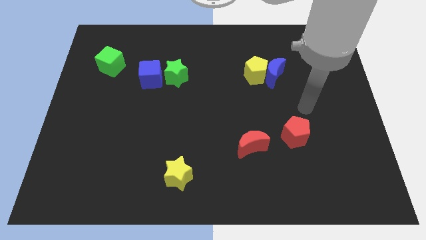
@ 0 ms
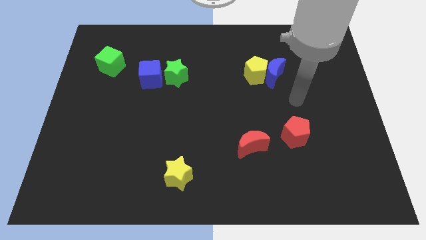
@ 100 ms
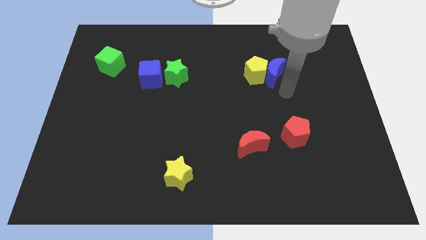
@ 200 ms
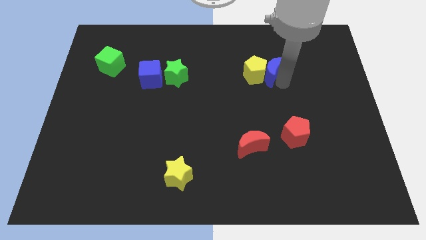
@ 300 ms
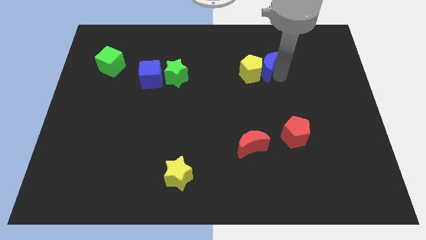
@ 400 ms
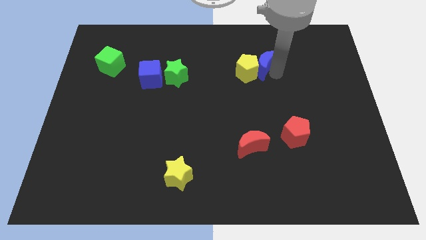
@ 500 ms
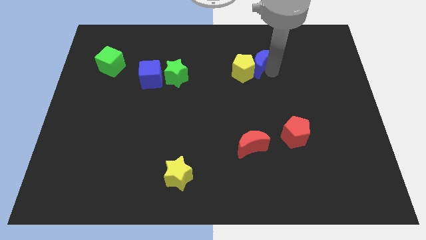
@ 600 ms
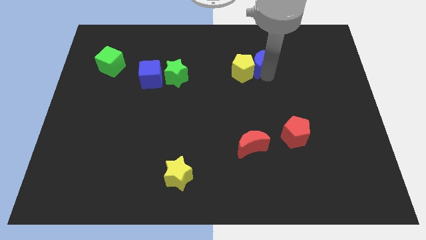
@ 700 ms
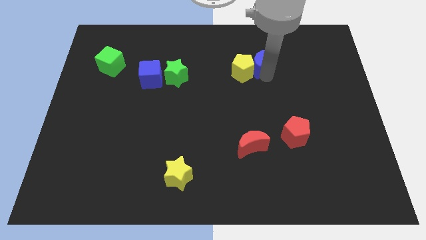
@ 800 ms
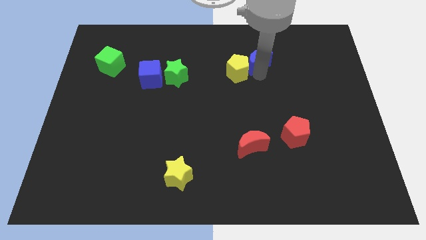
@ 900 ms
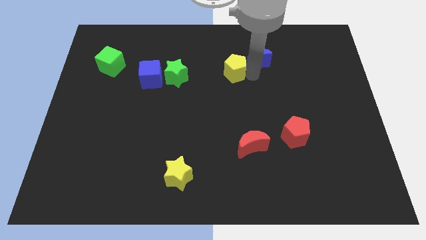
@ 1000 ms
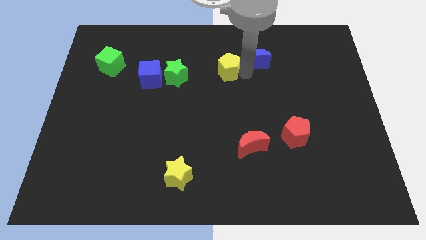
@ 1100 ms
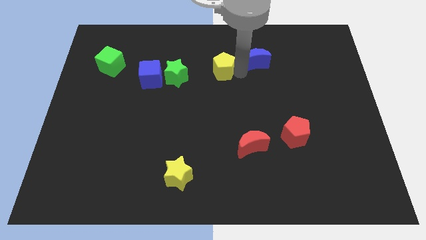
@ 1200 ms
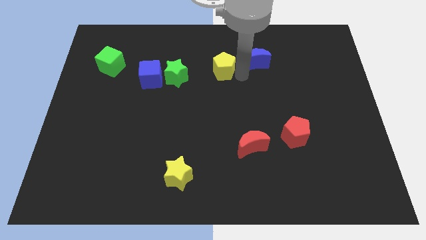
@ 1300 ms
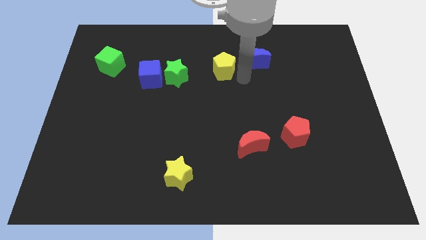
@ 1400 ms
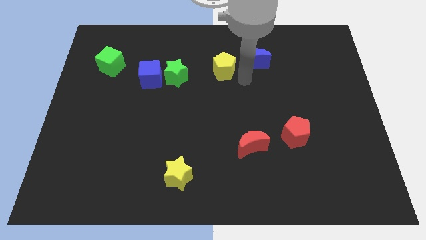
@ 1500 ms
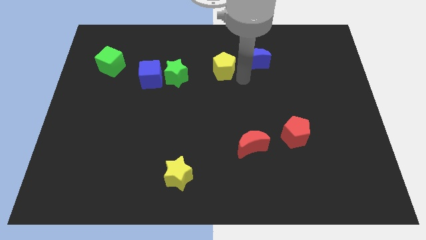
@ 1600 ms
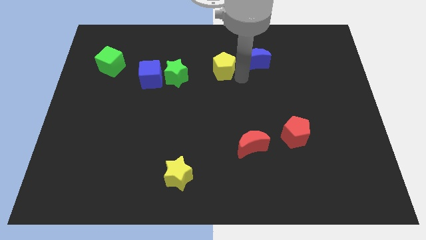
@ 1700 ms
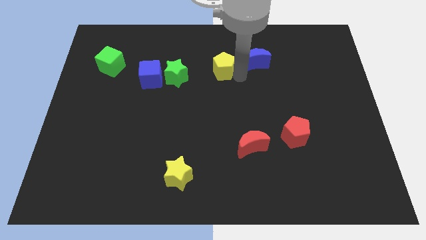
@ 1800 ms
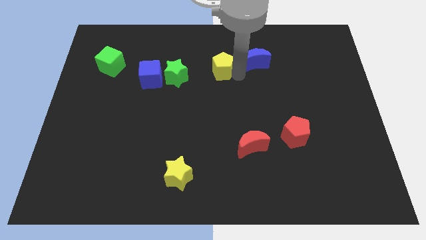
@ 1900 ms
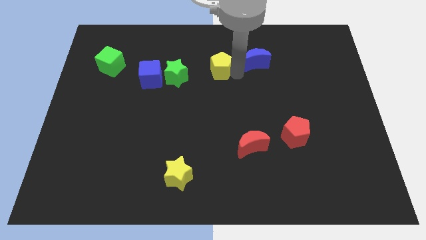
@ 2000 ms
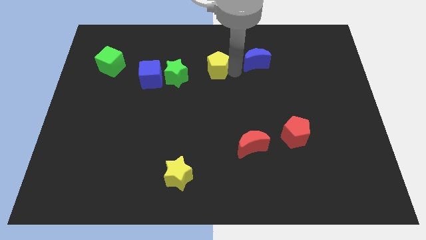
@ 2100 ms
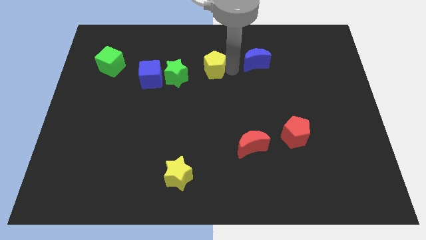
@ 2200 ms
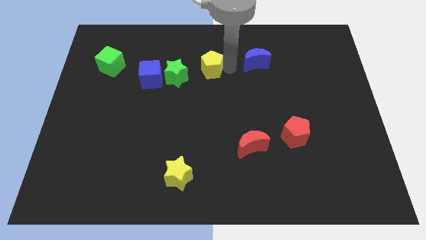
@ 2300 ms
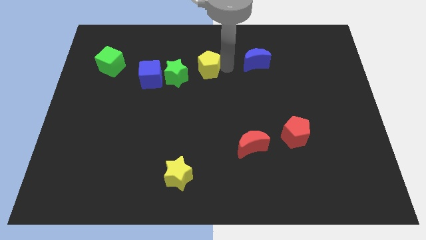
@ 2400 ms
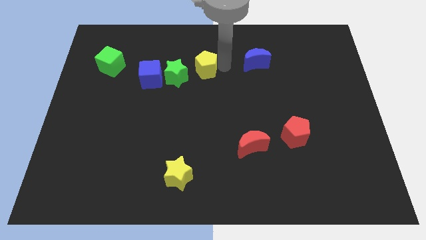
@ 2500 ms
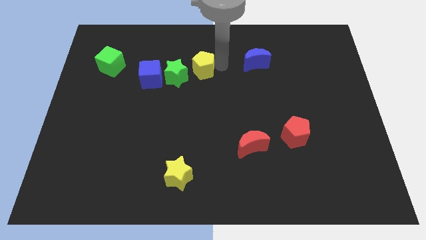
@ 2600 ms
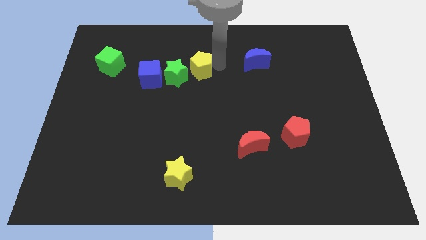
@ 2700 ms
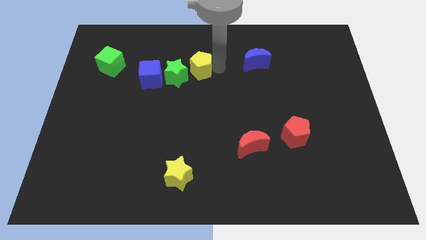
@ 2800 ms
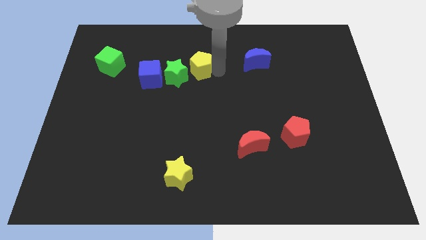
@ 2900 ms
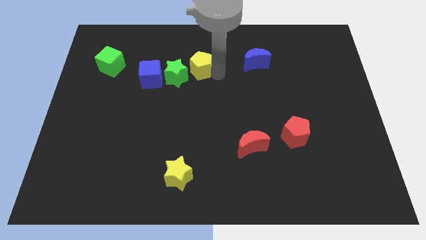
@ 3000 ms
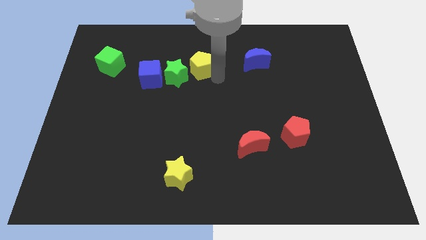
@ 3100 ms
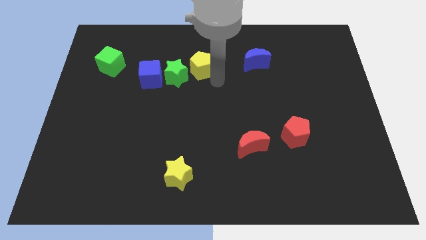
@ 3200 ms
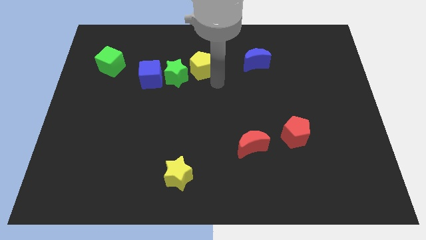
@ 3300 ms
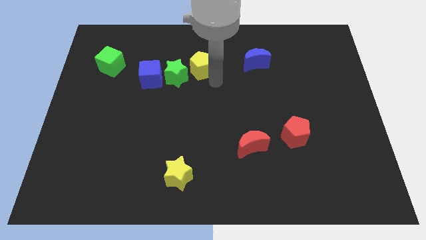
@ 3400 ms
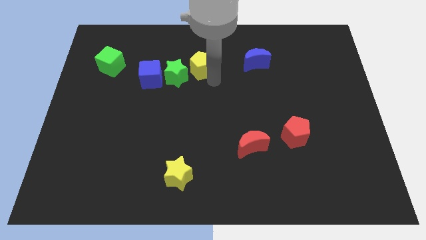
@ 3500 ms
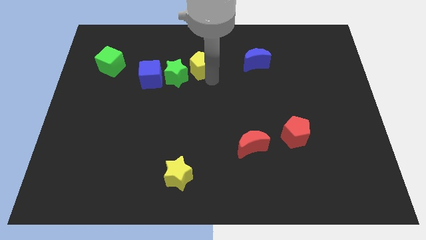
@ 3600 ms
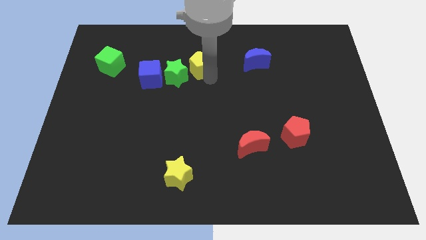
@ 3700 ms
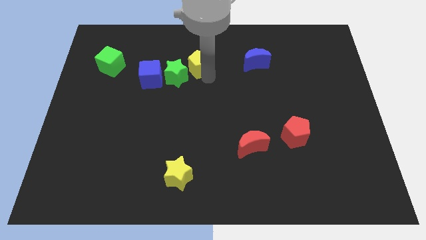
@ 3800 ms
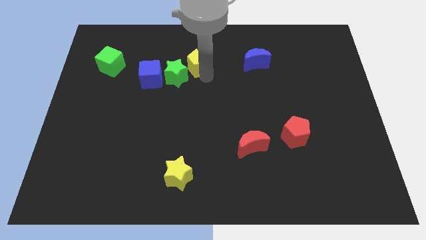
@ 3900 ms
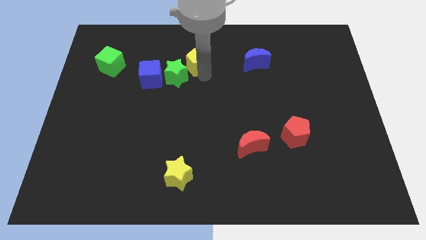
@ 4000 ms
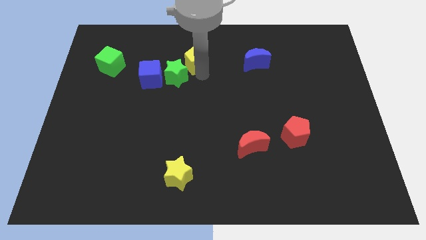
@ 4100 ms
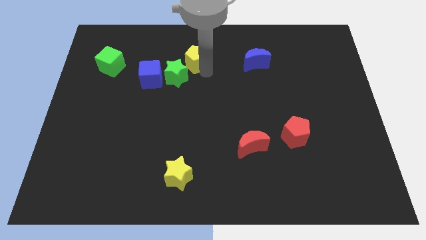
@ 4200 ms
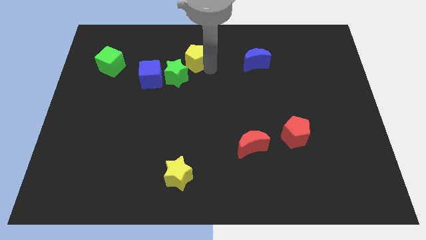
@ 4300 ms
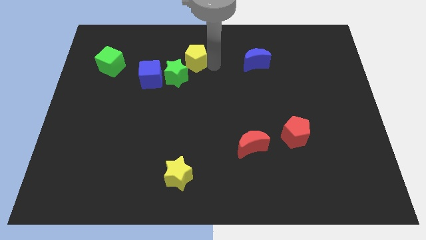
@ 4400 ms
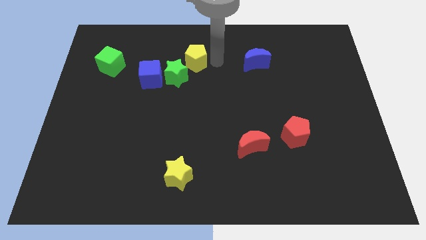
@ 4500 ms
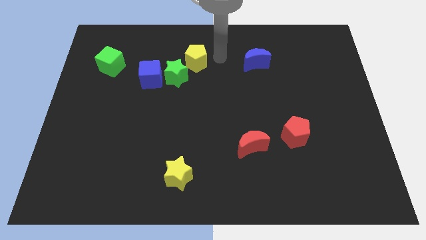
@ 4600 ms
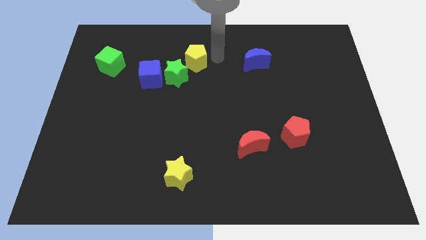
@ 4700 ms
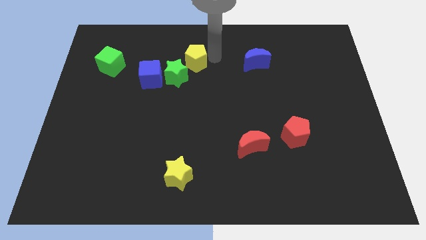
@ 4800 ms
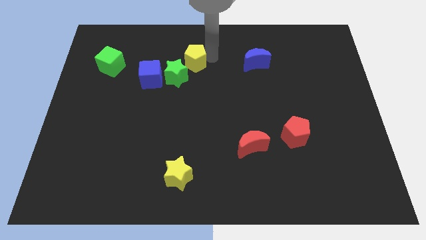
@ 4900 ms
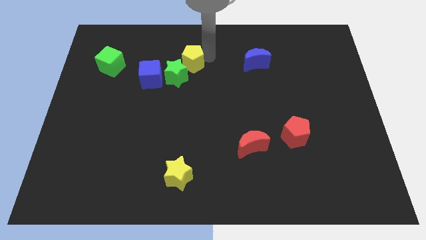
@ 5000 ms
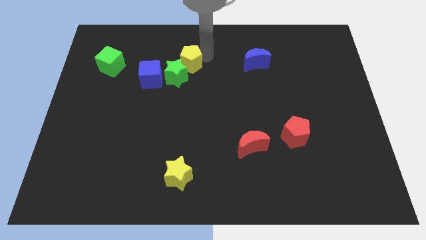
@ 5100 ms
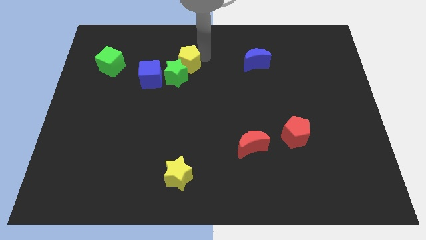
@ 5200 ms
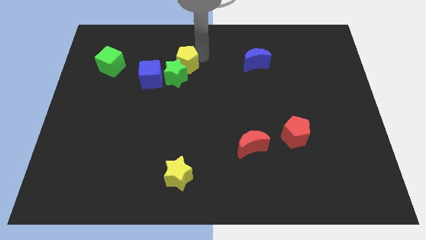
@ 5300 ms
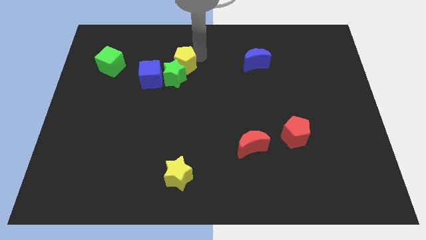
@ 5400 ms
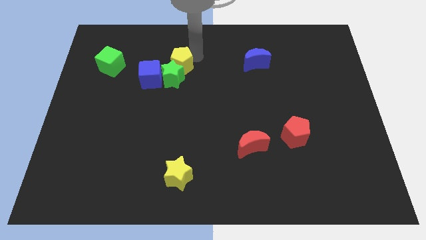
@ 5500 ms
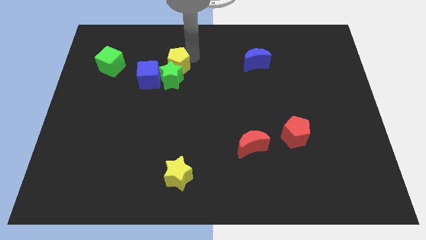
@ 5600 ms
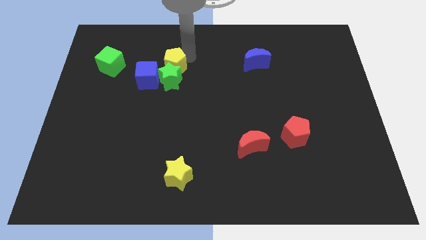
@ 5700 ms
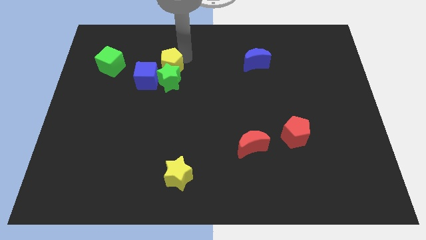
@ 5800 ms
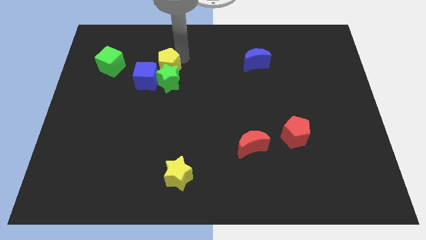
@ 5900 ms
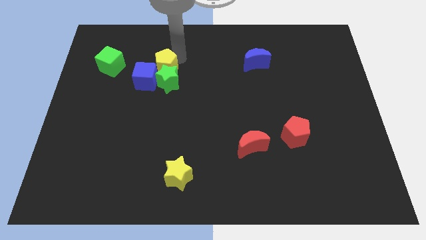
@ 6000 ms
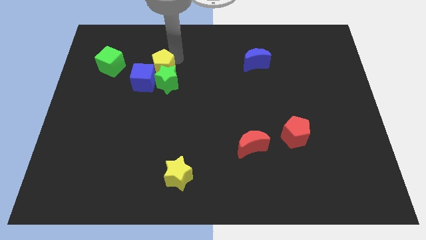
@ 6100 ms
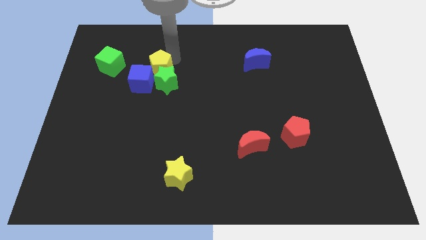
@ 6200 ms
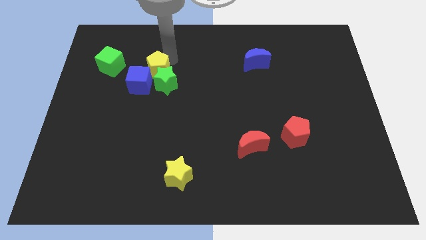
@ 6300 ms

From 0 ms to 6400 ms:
move the yellow pentagon next to the blue cube
